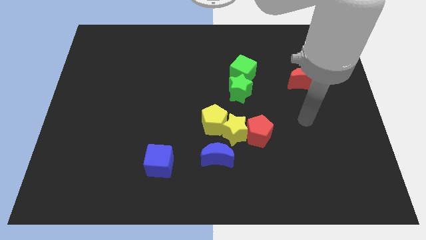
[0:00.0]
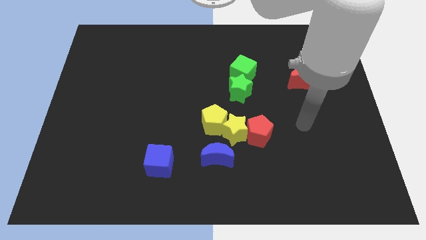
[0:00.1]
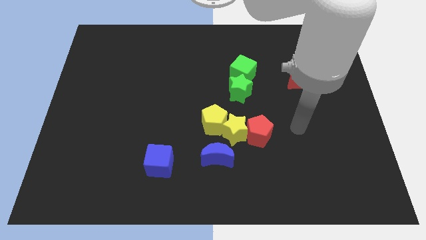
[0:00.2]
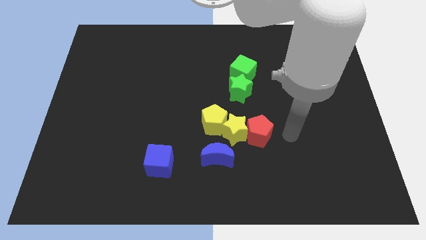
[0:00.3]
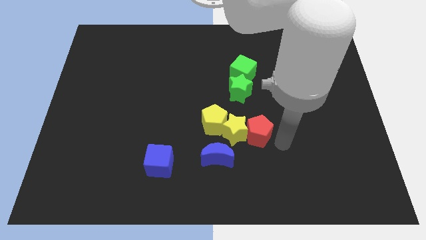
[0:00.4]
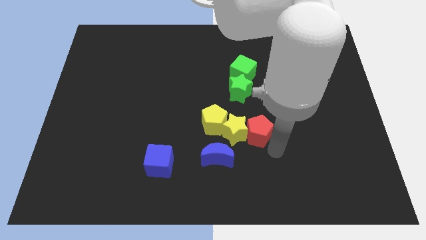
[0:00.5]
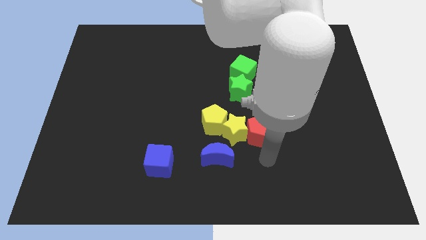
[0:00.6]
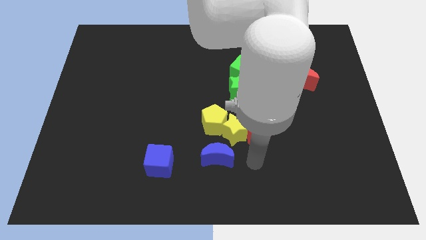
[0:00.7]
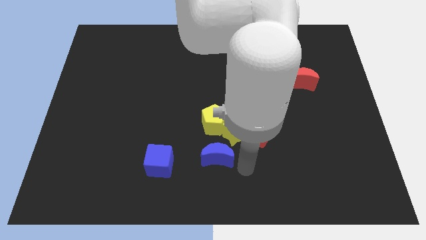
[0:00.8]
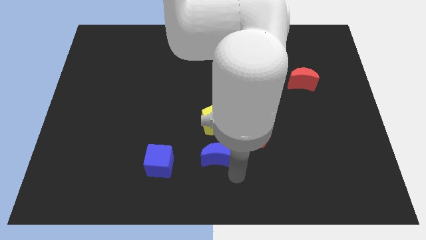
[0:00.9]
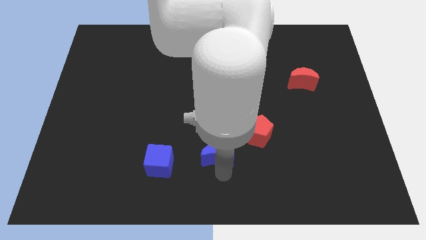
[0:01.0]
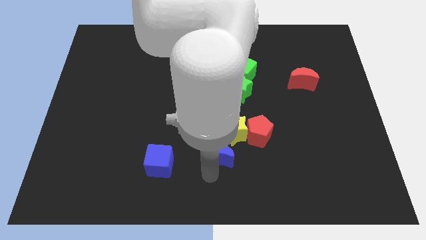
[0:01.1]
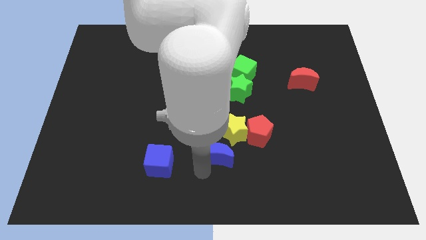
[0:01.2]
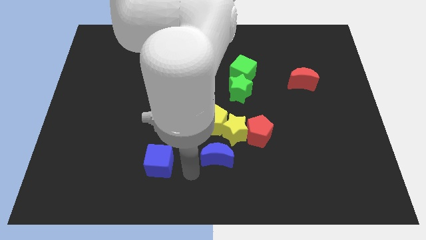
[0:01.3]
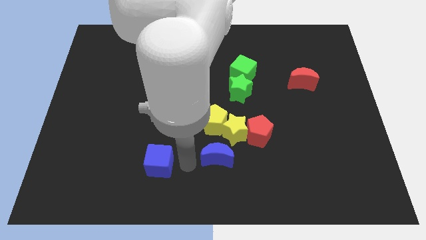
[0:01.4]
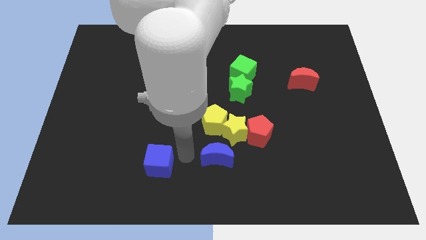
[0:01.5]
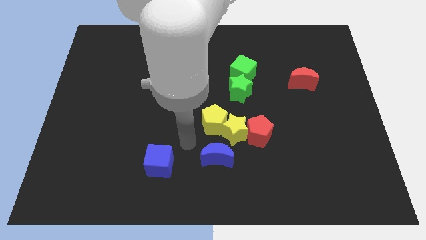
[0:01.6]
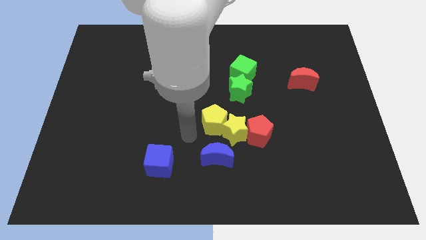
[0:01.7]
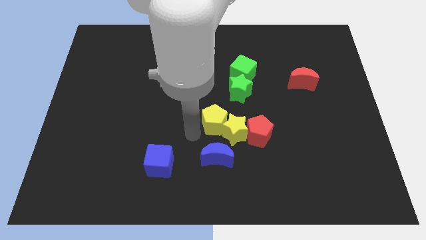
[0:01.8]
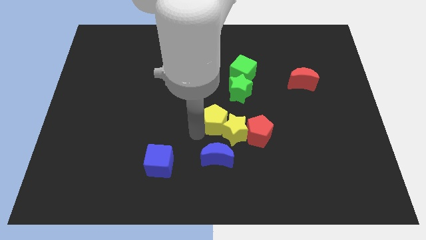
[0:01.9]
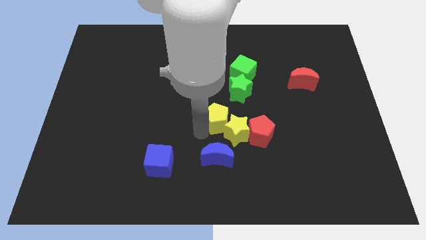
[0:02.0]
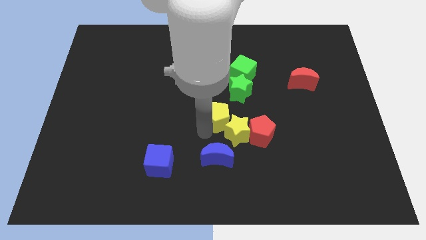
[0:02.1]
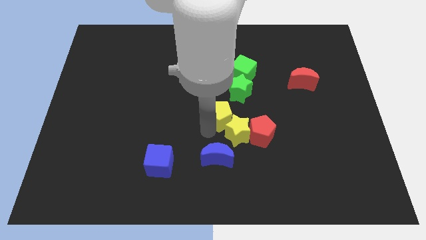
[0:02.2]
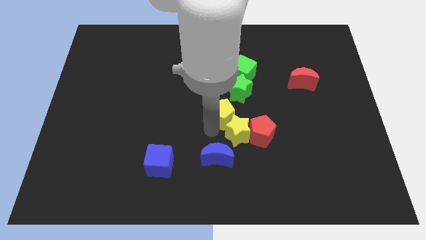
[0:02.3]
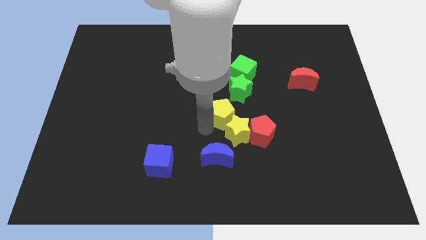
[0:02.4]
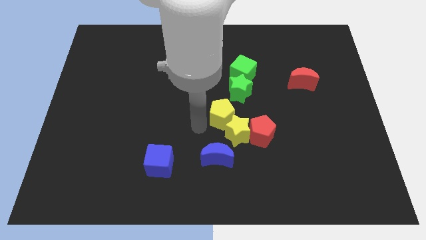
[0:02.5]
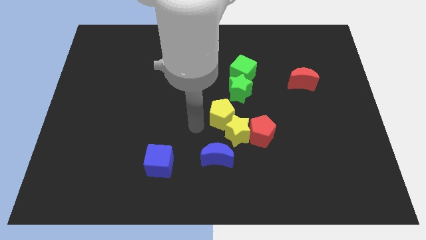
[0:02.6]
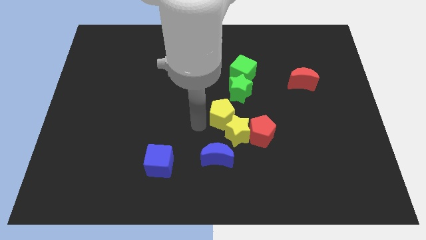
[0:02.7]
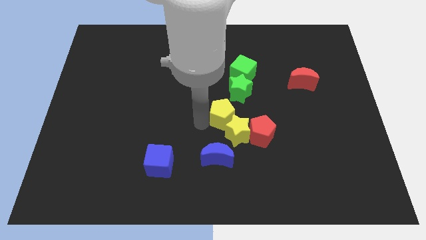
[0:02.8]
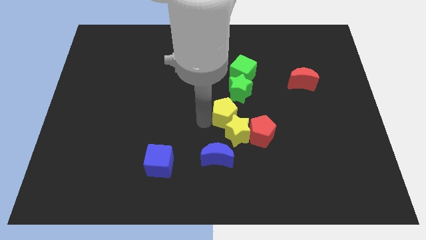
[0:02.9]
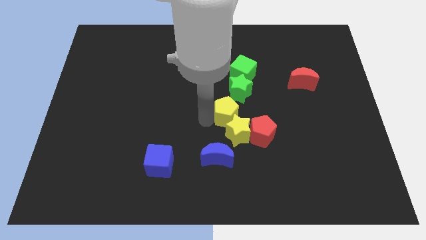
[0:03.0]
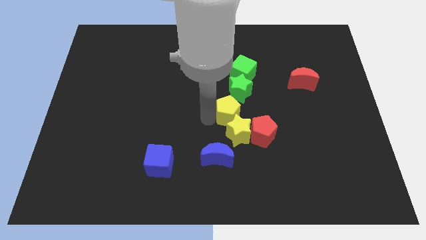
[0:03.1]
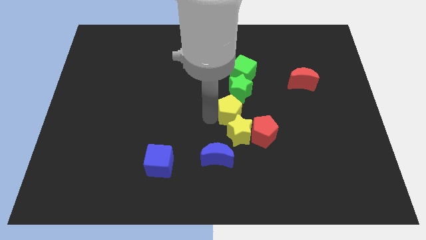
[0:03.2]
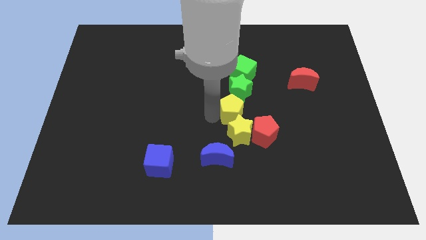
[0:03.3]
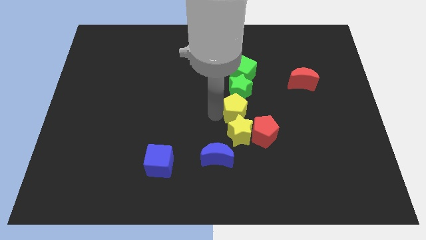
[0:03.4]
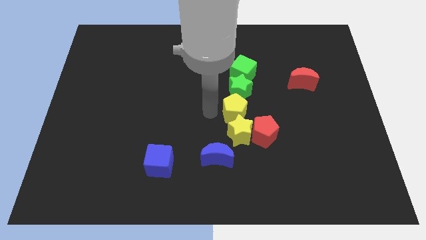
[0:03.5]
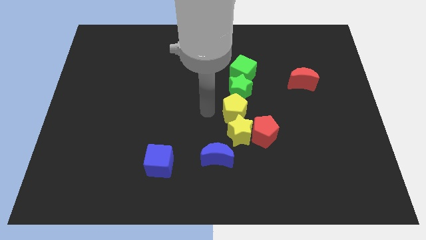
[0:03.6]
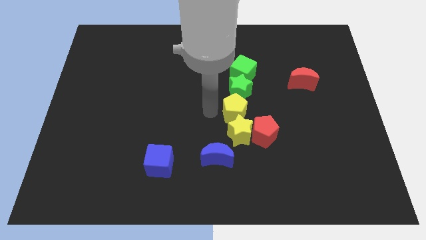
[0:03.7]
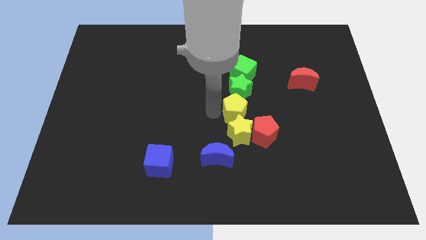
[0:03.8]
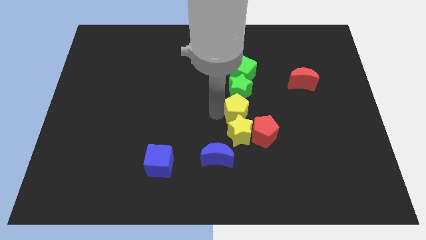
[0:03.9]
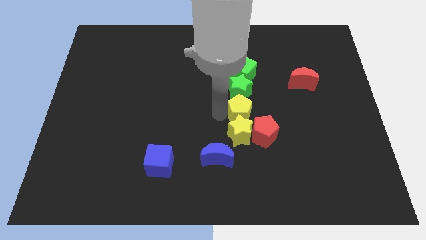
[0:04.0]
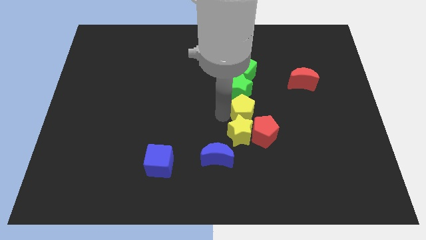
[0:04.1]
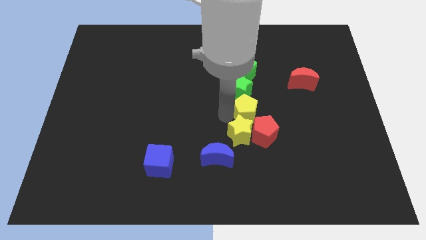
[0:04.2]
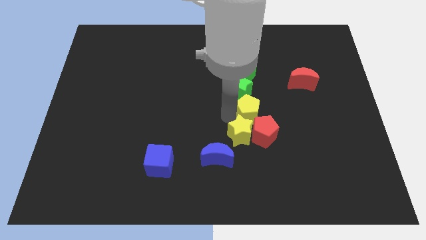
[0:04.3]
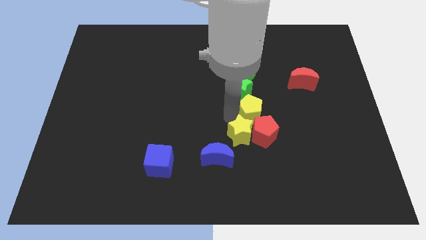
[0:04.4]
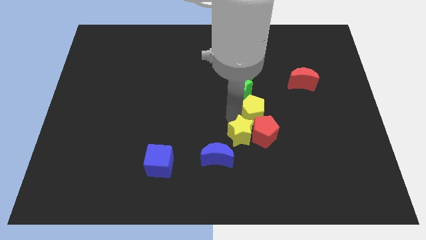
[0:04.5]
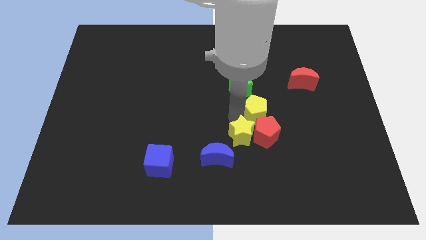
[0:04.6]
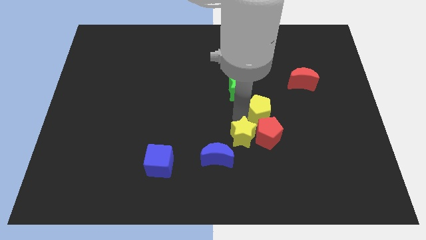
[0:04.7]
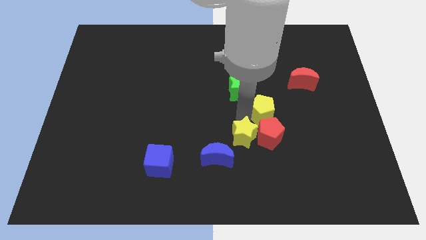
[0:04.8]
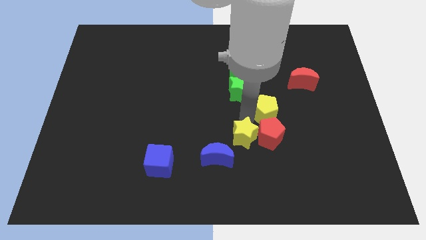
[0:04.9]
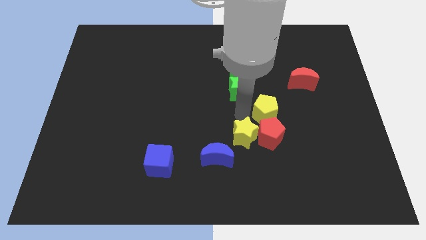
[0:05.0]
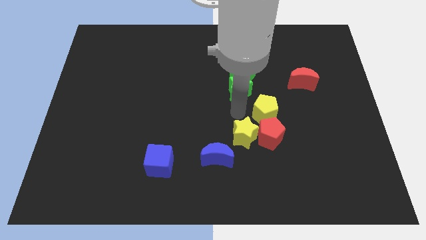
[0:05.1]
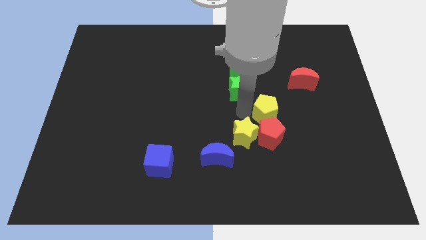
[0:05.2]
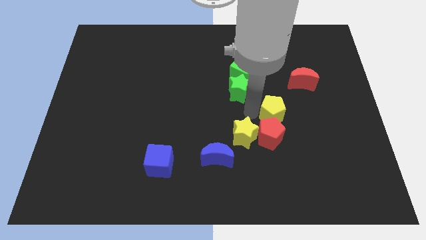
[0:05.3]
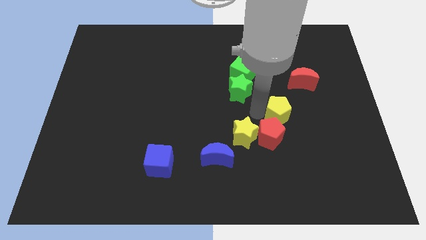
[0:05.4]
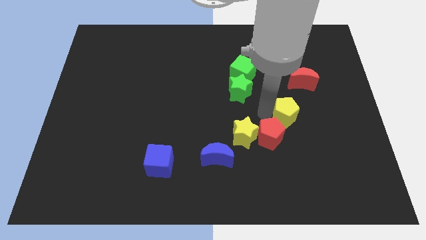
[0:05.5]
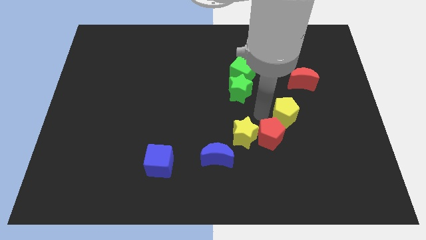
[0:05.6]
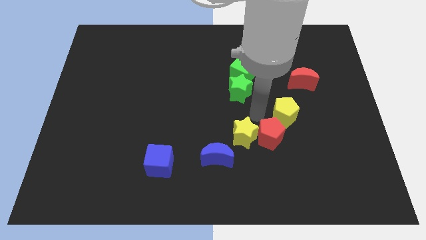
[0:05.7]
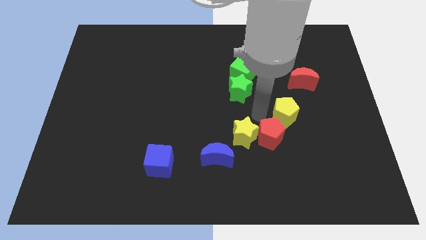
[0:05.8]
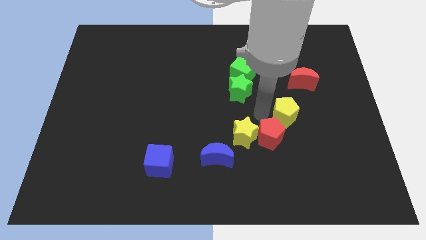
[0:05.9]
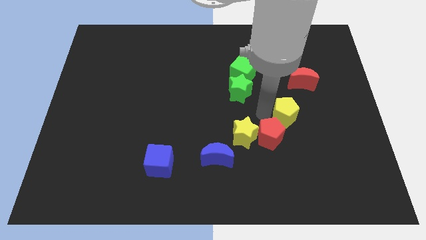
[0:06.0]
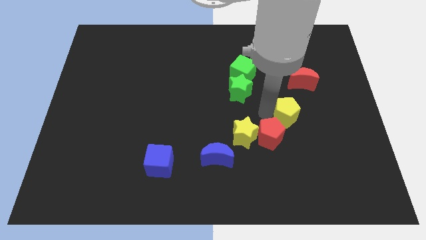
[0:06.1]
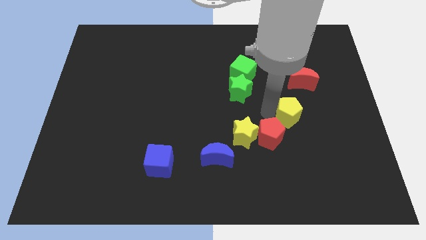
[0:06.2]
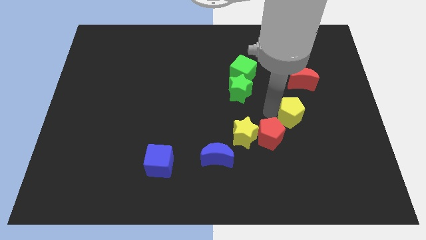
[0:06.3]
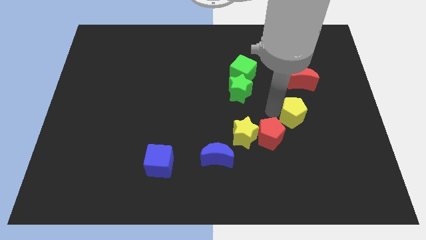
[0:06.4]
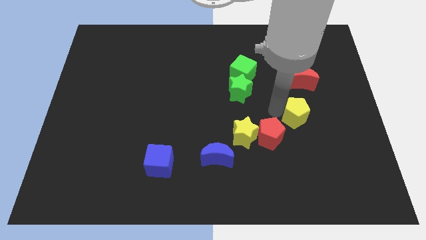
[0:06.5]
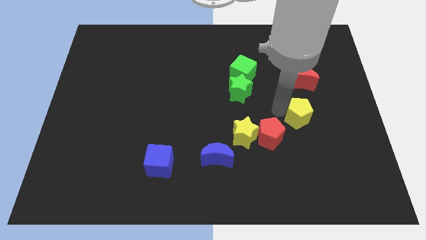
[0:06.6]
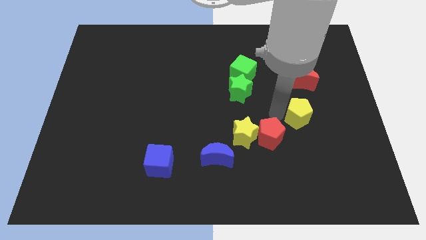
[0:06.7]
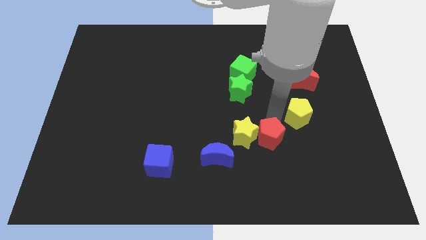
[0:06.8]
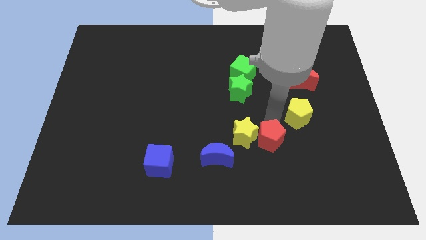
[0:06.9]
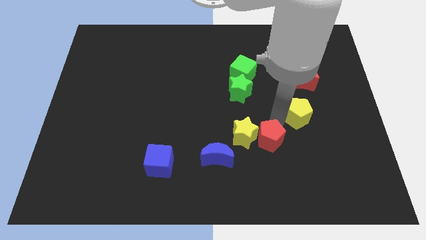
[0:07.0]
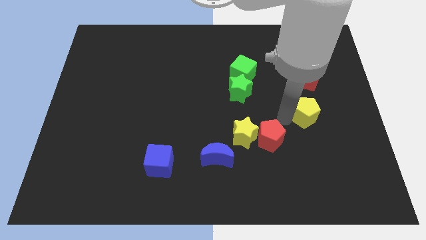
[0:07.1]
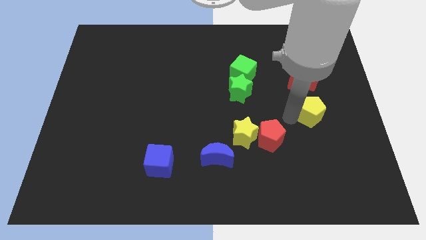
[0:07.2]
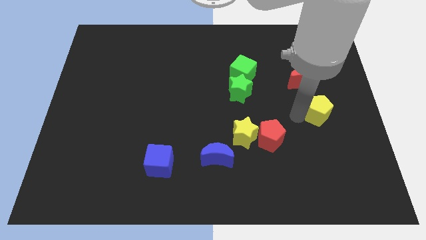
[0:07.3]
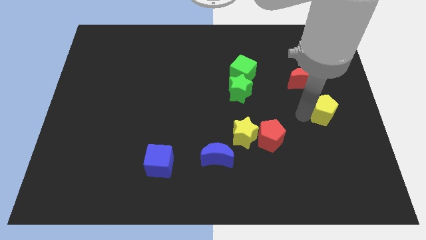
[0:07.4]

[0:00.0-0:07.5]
move the yellow pentagon to the right side of the board

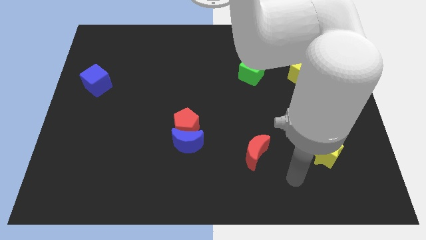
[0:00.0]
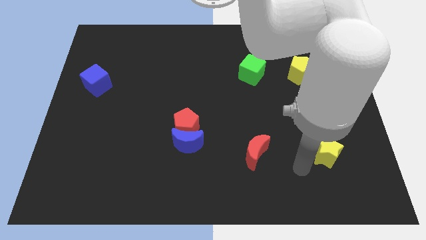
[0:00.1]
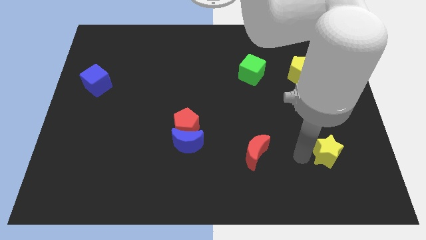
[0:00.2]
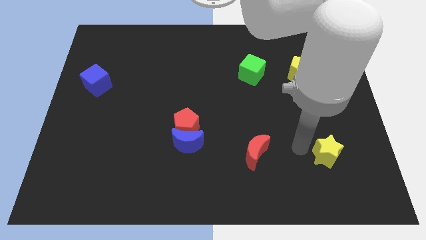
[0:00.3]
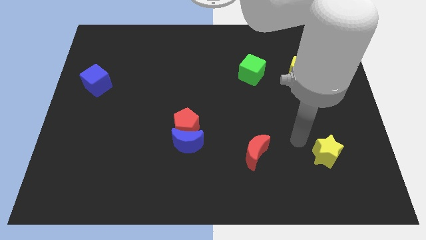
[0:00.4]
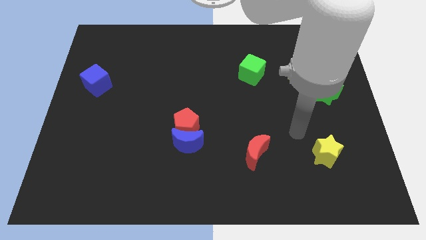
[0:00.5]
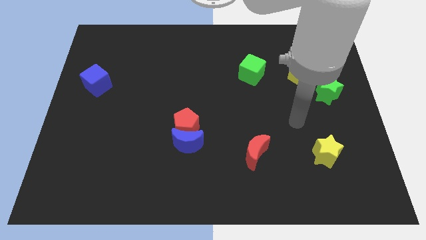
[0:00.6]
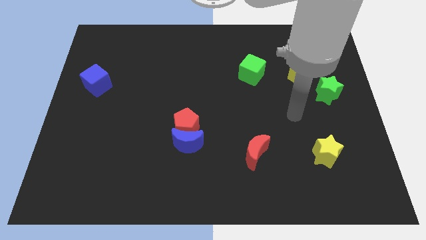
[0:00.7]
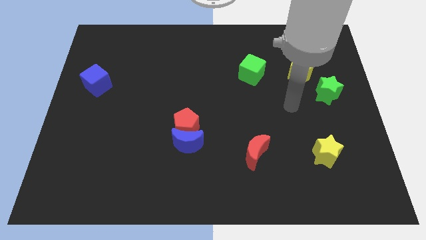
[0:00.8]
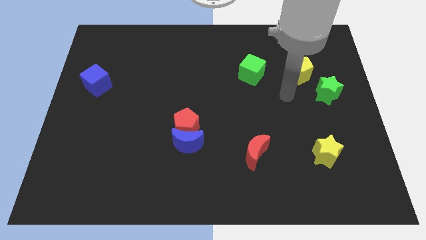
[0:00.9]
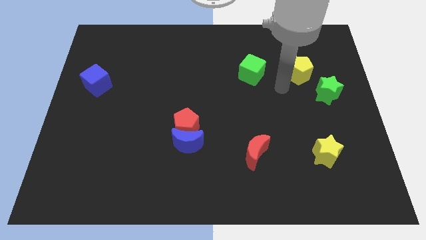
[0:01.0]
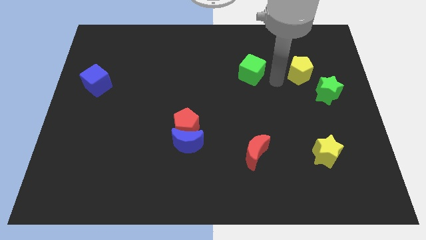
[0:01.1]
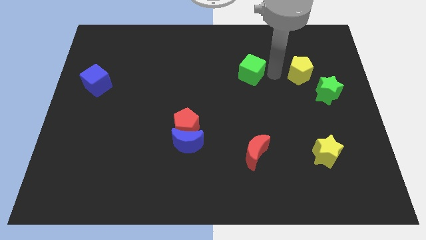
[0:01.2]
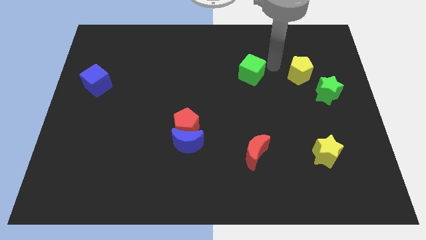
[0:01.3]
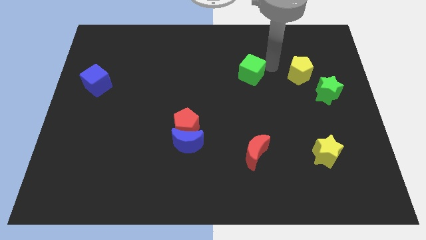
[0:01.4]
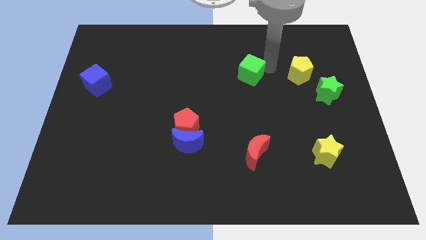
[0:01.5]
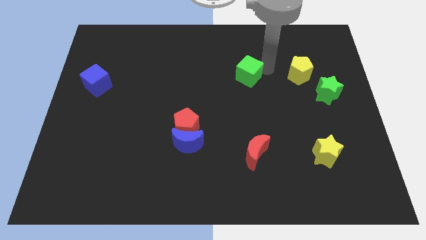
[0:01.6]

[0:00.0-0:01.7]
slide the green cube to the center
